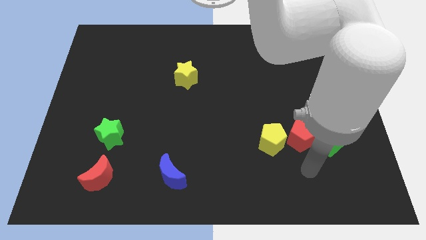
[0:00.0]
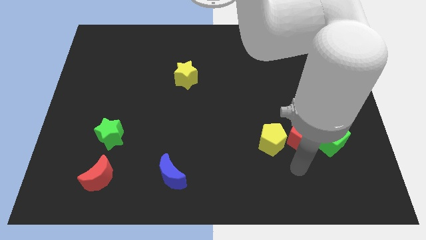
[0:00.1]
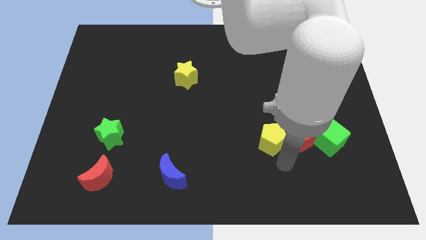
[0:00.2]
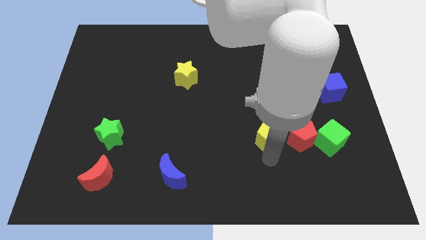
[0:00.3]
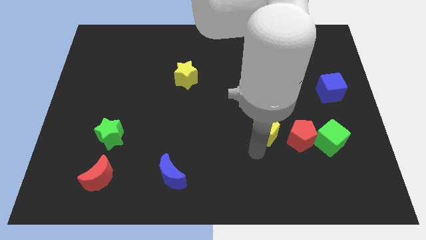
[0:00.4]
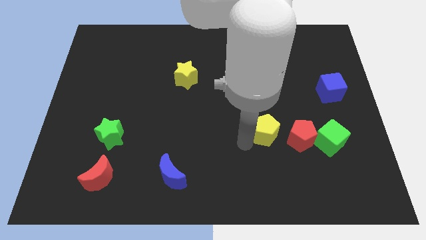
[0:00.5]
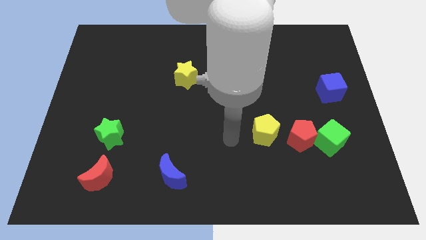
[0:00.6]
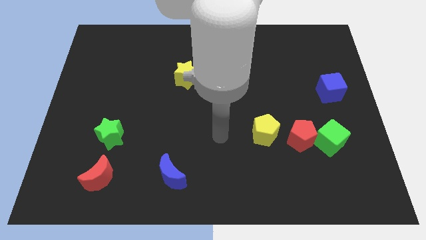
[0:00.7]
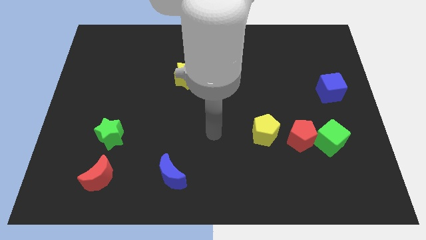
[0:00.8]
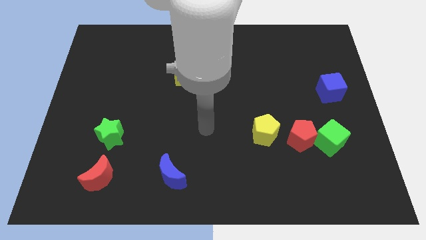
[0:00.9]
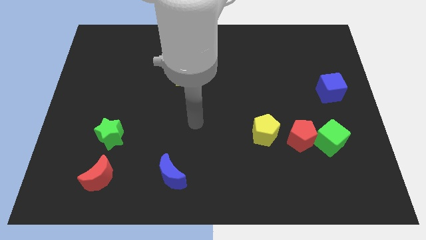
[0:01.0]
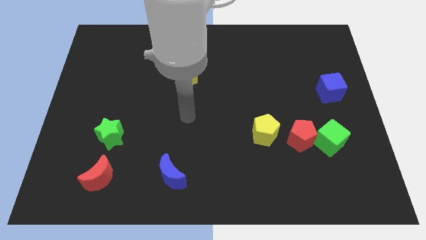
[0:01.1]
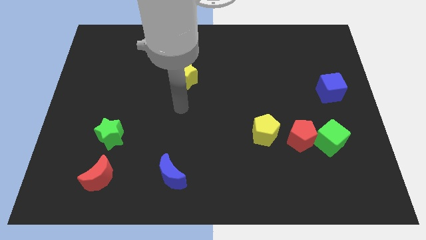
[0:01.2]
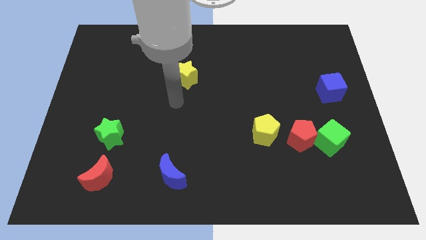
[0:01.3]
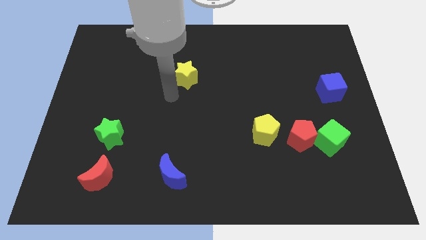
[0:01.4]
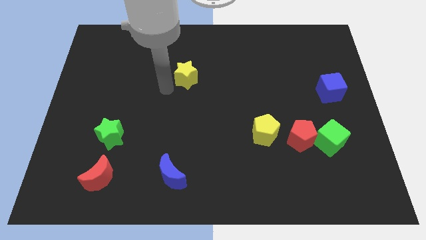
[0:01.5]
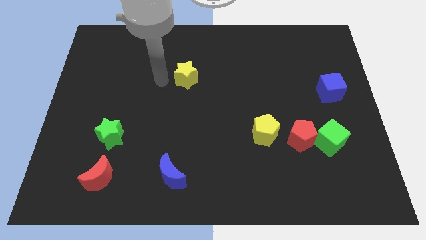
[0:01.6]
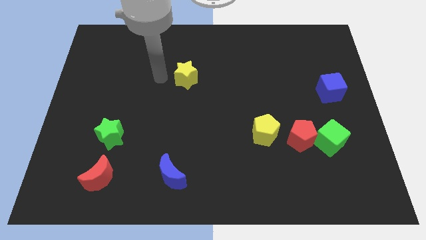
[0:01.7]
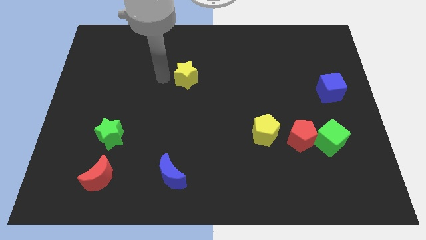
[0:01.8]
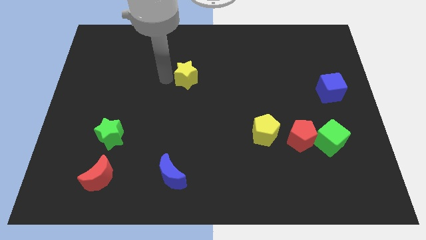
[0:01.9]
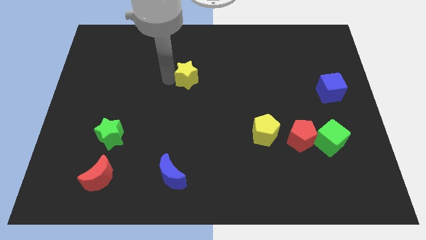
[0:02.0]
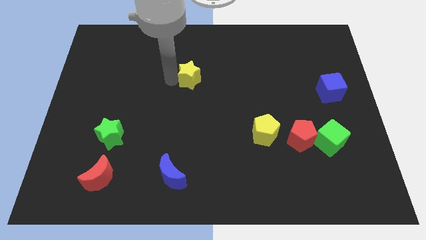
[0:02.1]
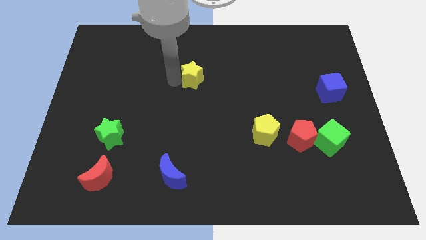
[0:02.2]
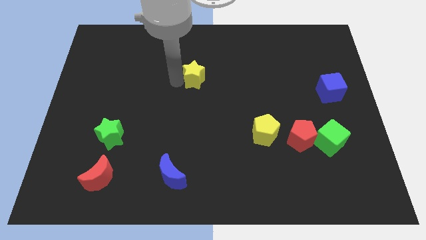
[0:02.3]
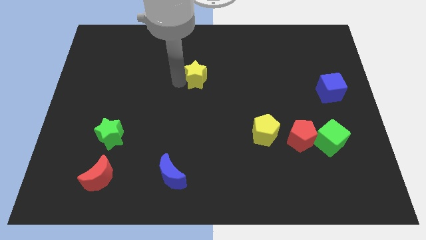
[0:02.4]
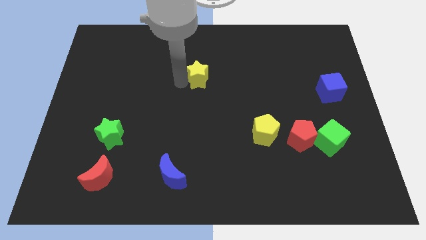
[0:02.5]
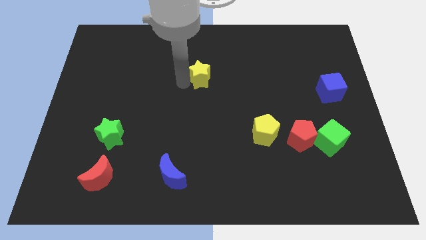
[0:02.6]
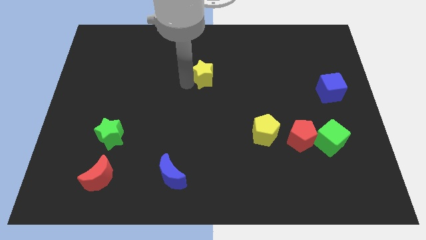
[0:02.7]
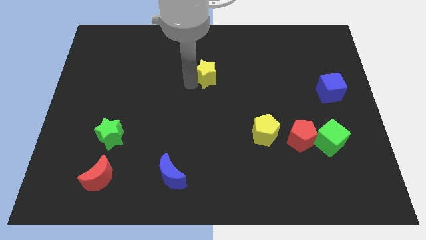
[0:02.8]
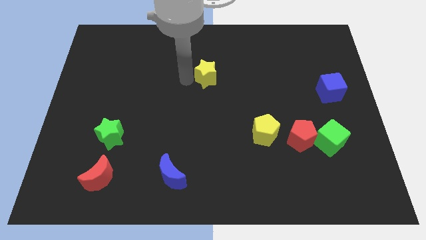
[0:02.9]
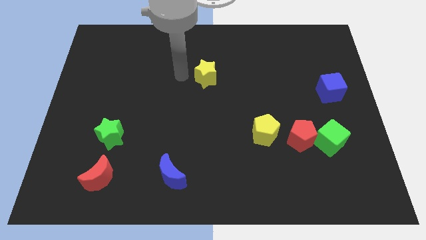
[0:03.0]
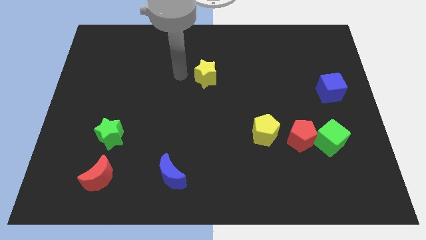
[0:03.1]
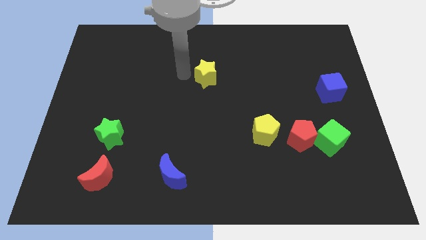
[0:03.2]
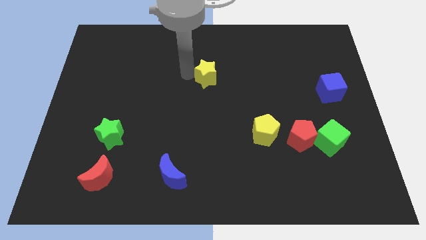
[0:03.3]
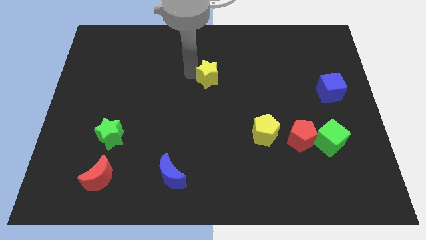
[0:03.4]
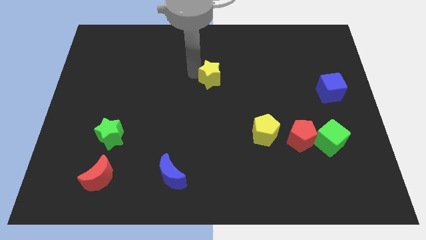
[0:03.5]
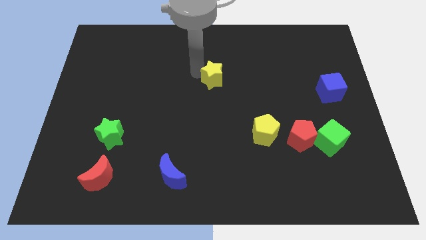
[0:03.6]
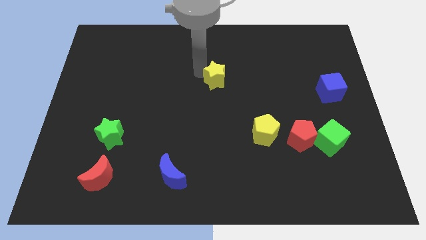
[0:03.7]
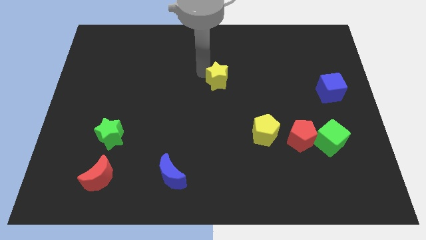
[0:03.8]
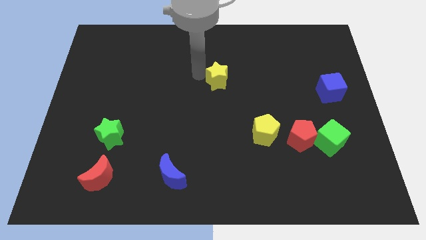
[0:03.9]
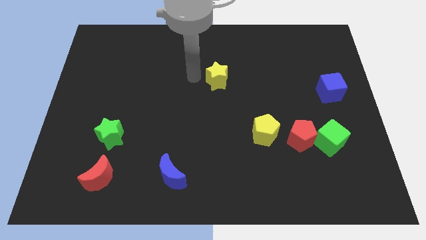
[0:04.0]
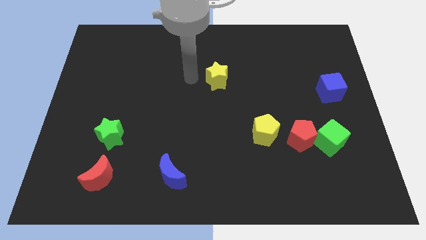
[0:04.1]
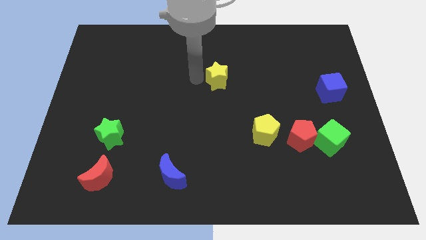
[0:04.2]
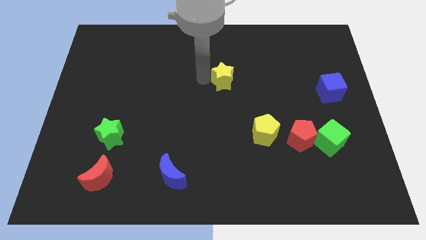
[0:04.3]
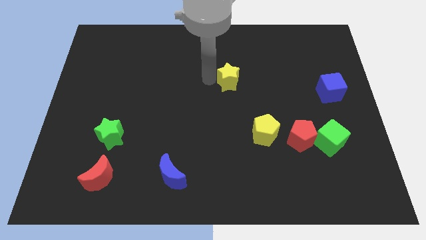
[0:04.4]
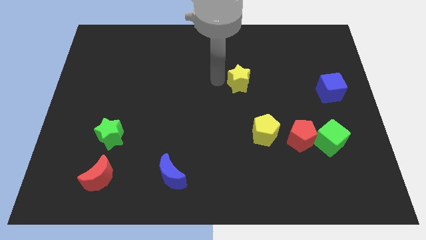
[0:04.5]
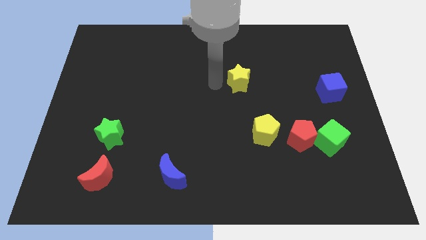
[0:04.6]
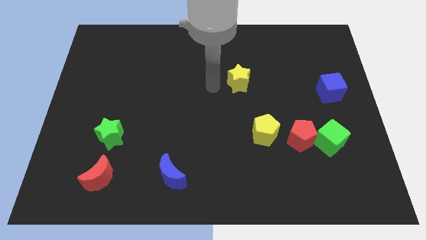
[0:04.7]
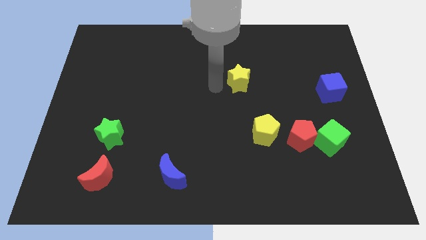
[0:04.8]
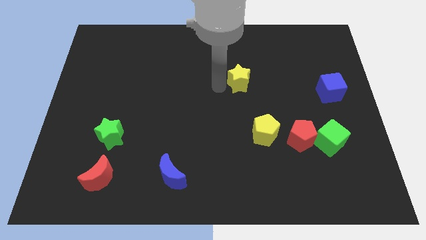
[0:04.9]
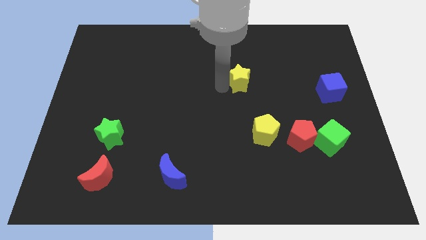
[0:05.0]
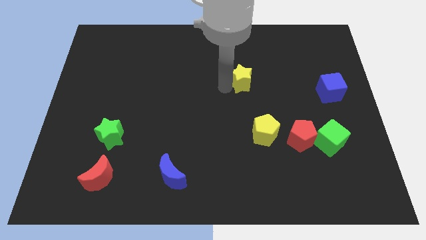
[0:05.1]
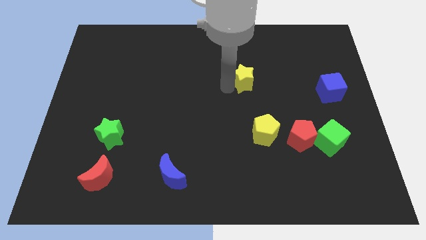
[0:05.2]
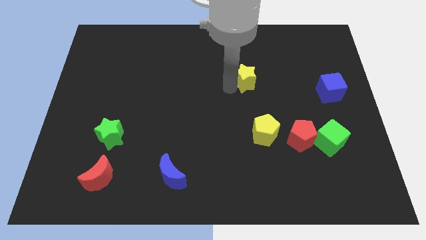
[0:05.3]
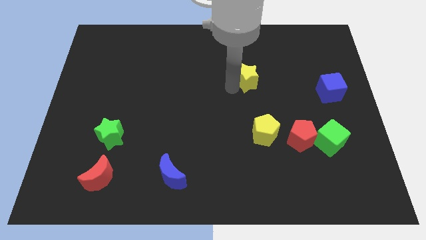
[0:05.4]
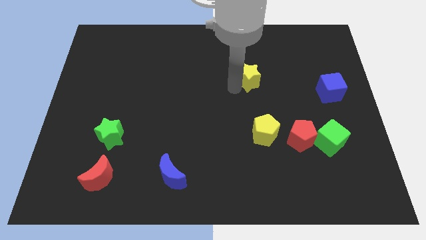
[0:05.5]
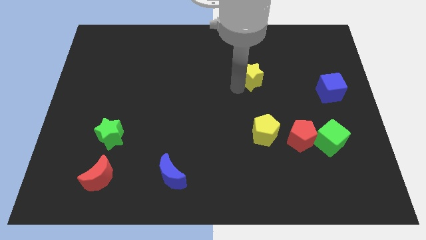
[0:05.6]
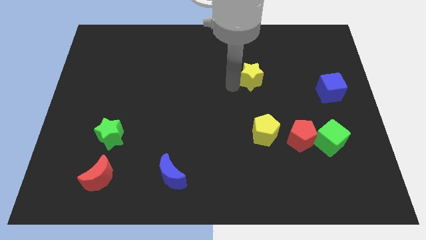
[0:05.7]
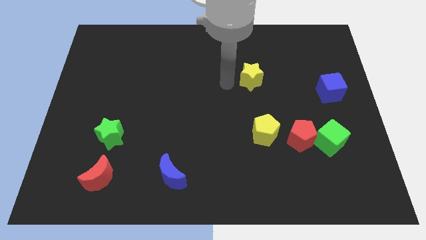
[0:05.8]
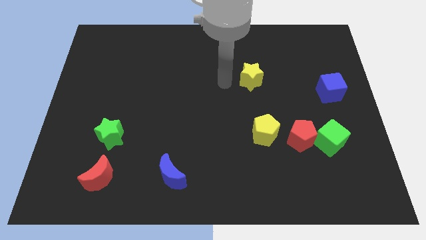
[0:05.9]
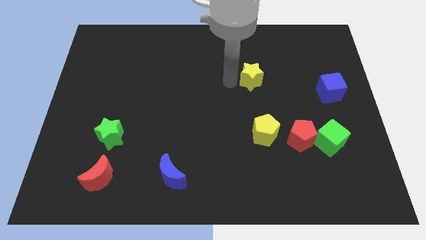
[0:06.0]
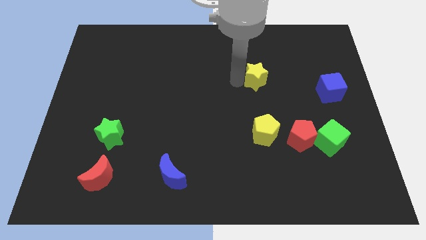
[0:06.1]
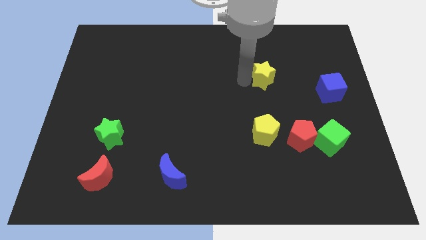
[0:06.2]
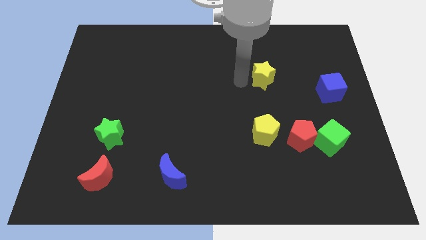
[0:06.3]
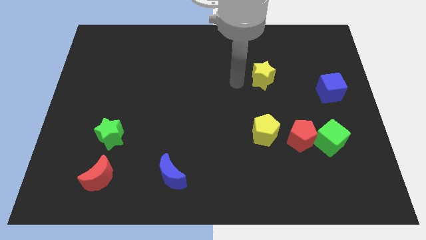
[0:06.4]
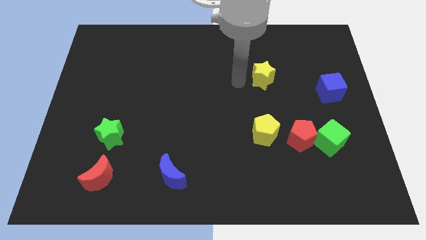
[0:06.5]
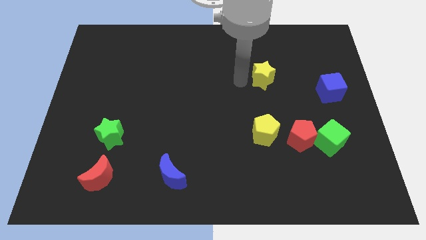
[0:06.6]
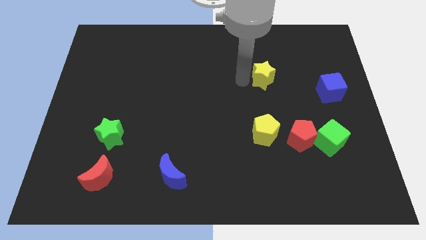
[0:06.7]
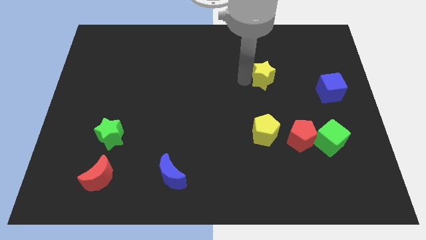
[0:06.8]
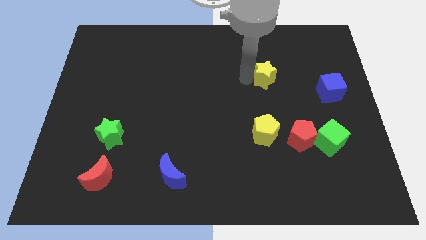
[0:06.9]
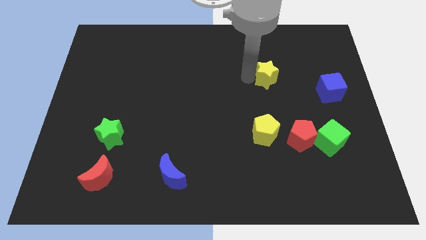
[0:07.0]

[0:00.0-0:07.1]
push the yellow star to the right

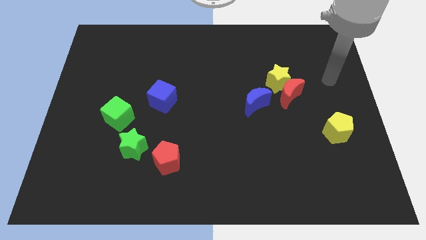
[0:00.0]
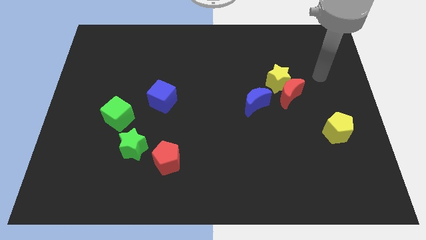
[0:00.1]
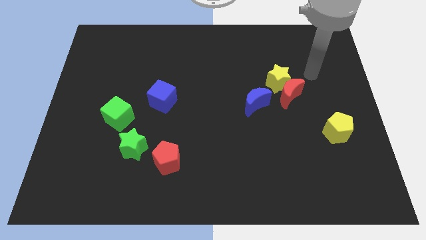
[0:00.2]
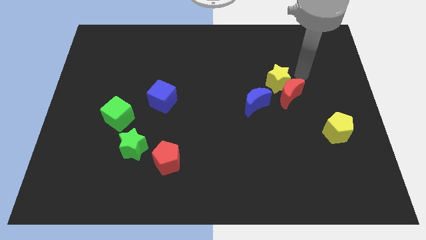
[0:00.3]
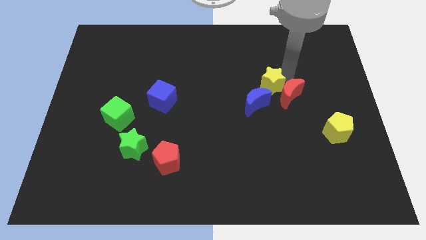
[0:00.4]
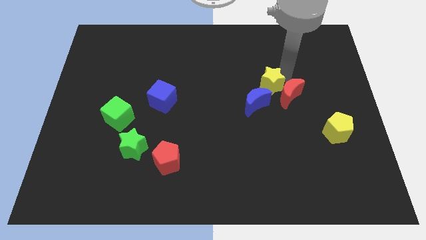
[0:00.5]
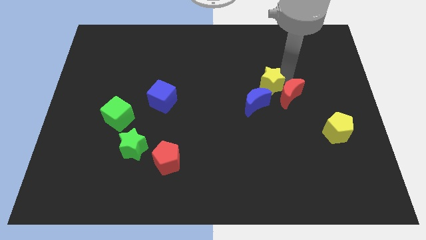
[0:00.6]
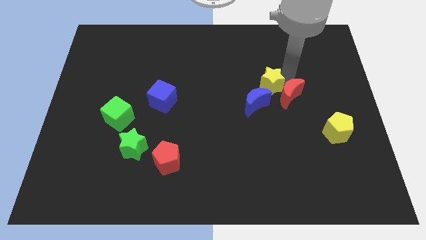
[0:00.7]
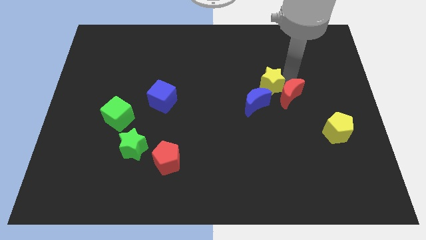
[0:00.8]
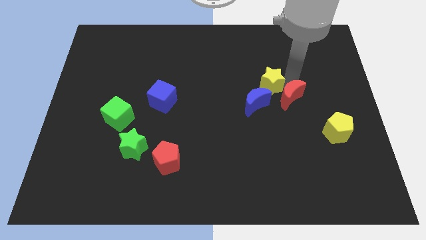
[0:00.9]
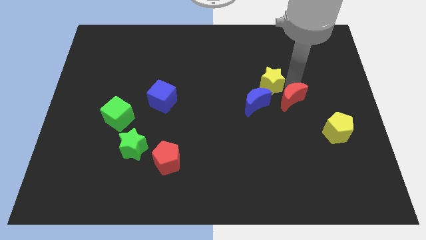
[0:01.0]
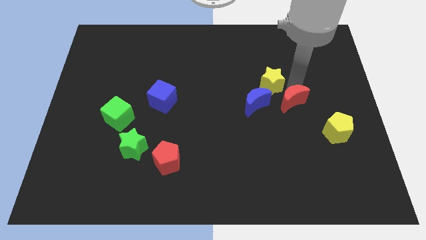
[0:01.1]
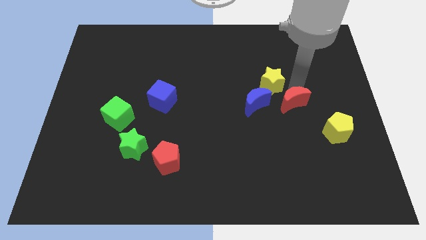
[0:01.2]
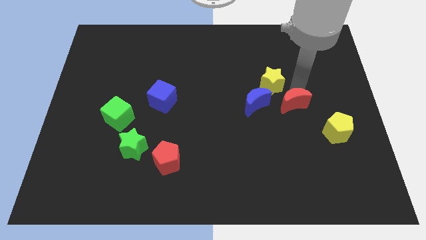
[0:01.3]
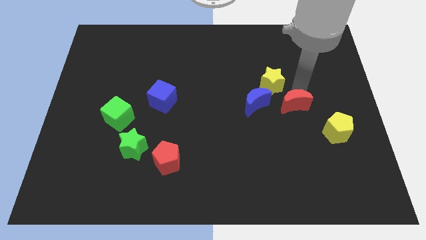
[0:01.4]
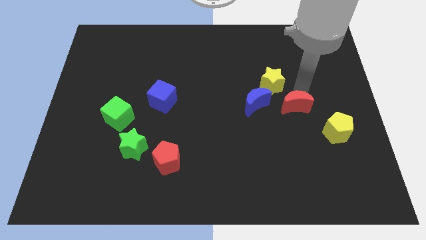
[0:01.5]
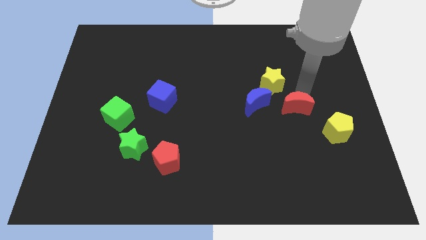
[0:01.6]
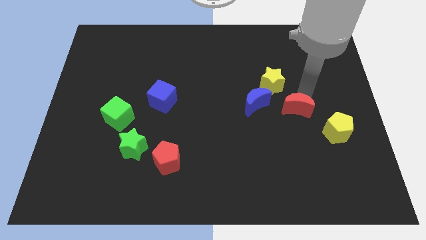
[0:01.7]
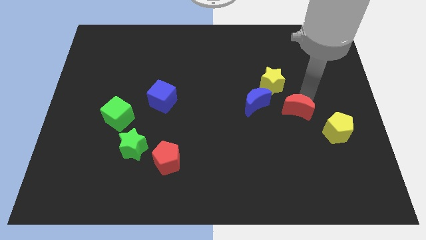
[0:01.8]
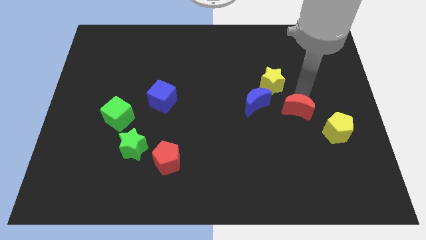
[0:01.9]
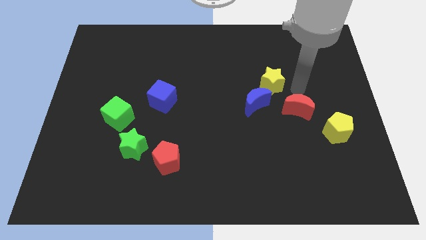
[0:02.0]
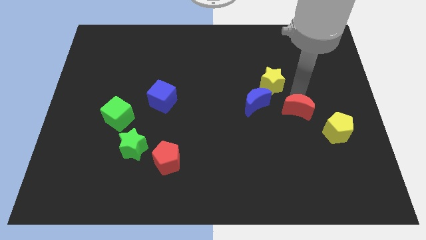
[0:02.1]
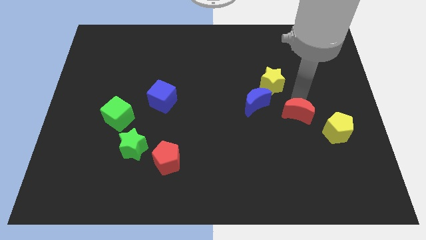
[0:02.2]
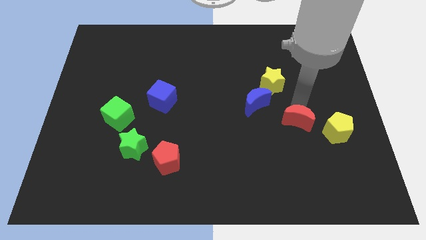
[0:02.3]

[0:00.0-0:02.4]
slightly slide the red moon down
